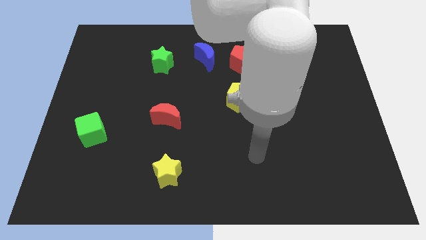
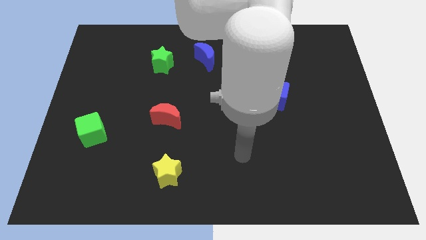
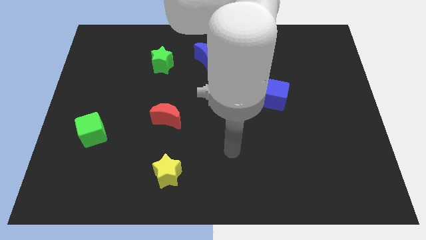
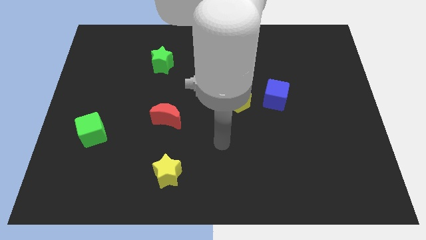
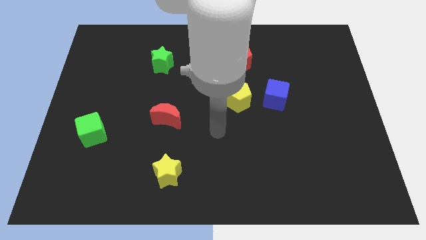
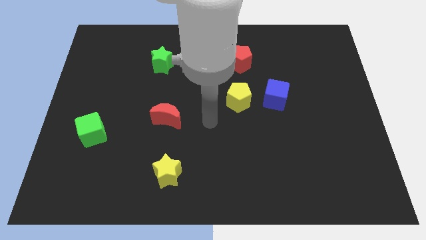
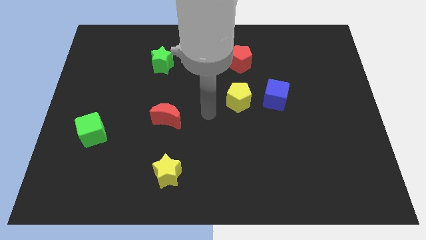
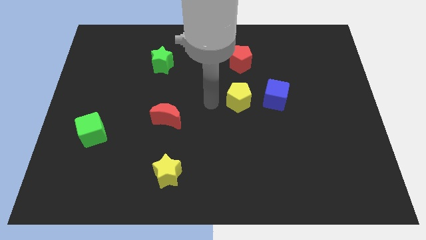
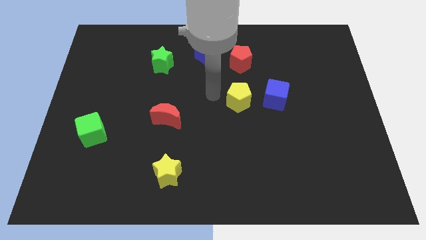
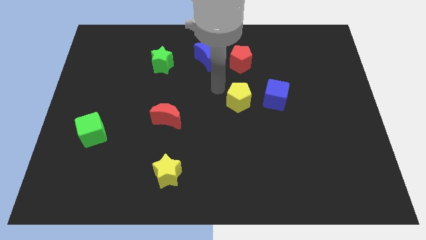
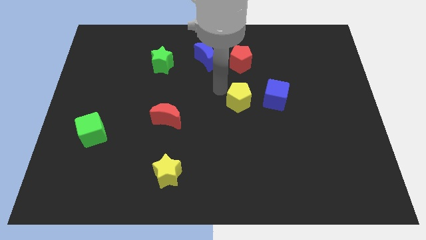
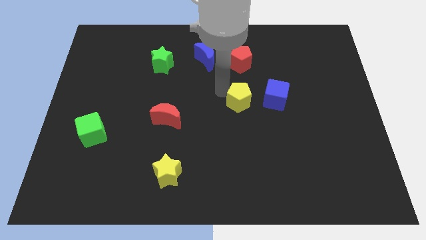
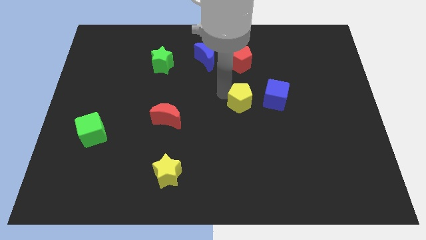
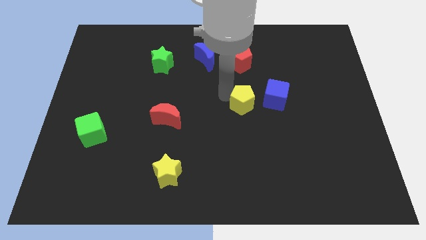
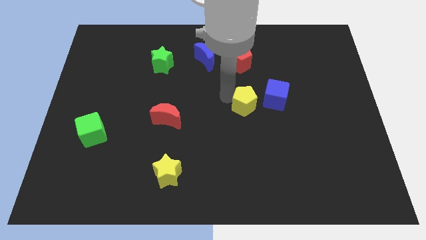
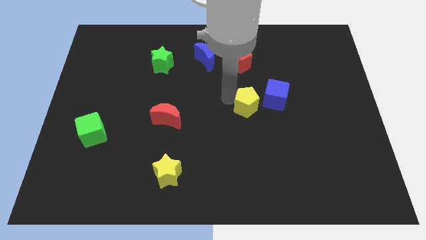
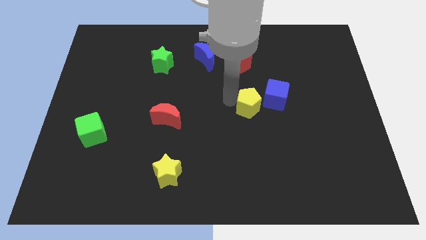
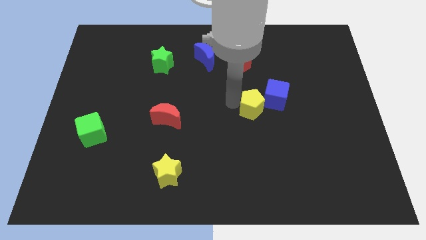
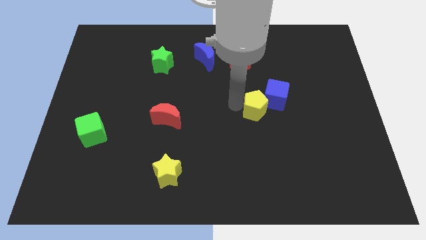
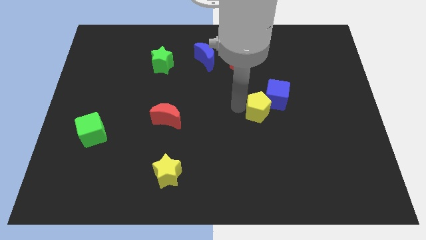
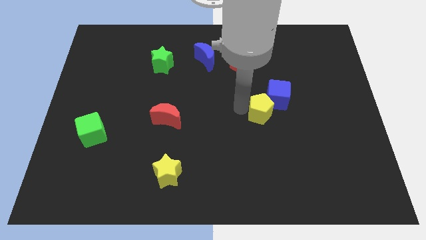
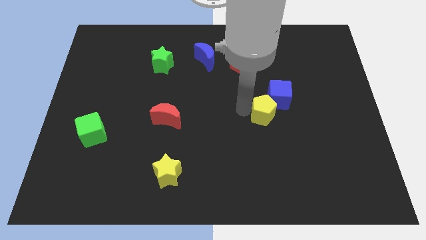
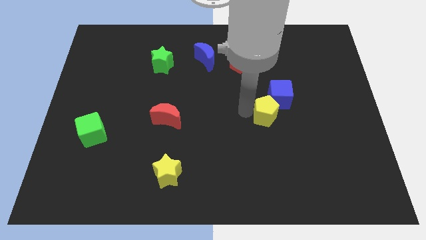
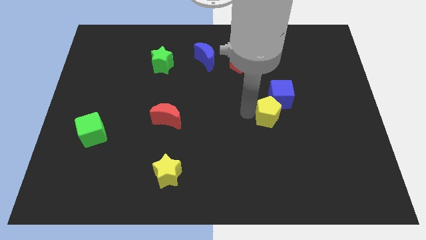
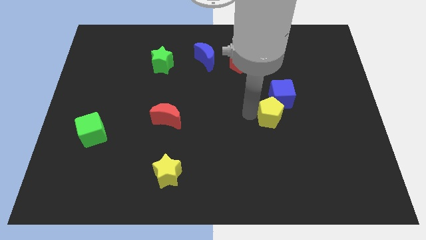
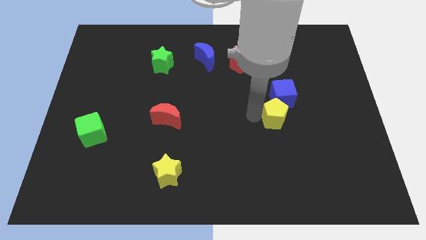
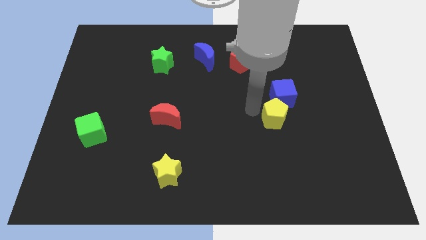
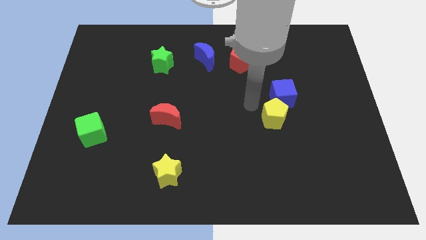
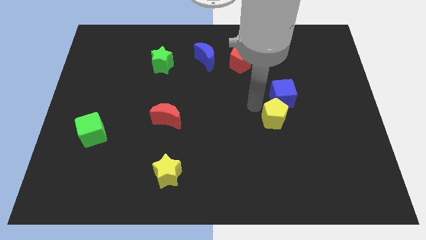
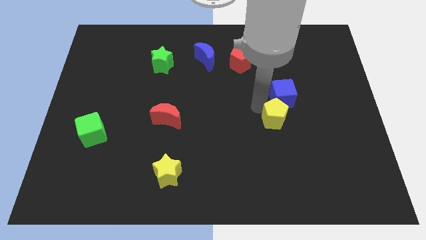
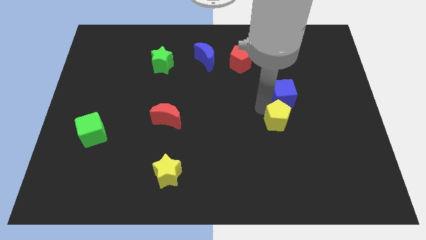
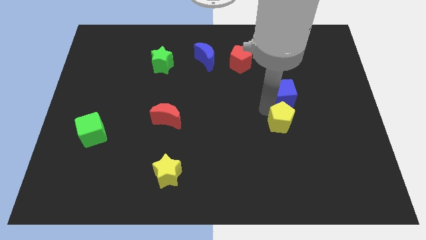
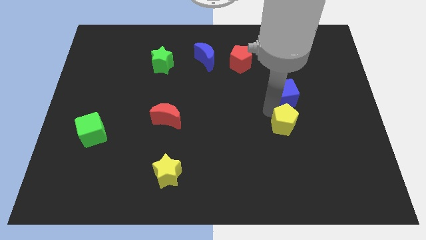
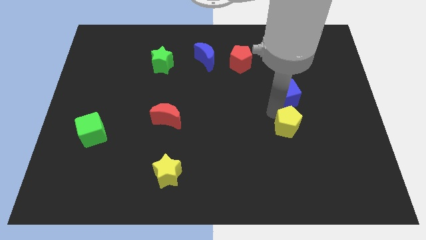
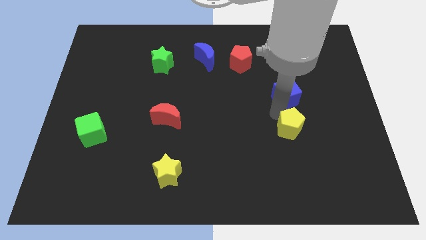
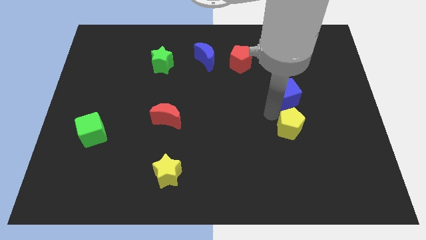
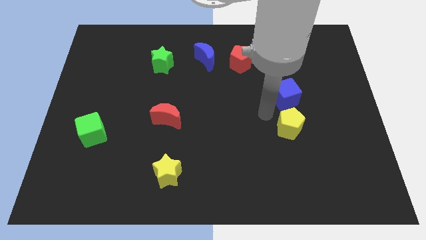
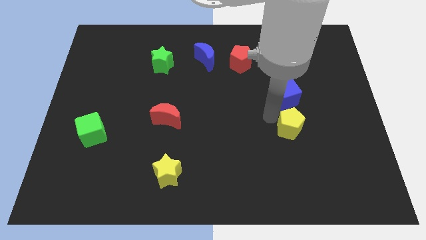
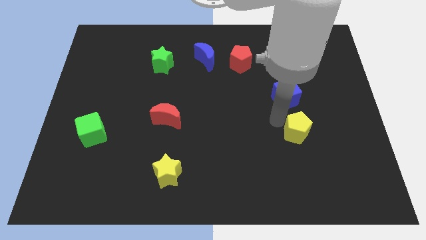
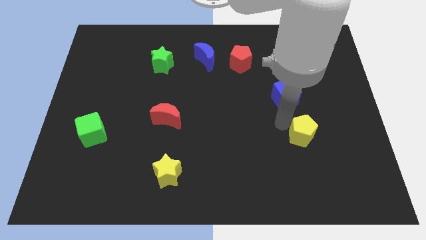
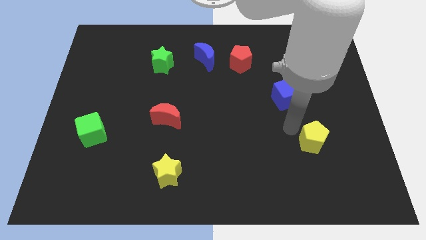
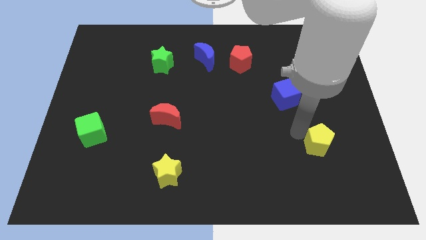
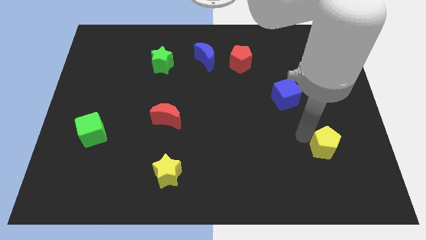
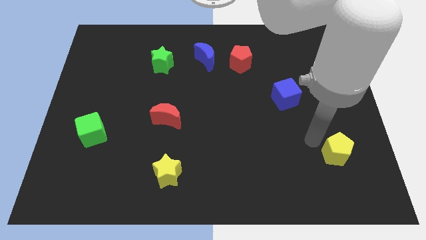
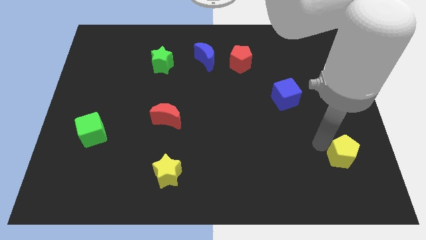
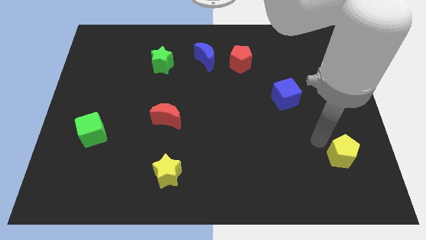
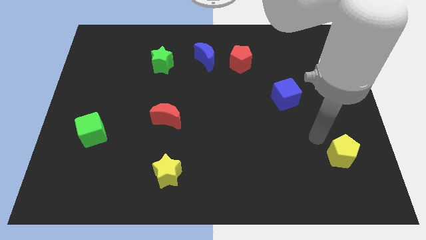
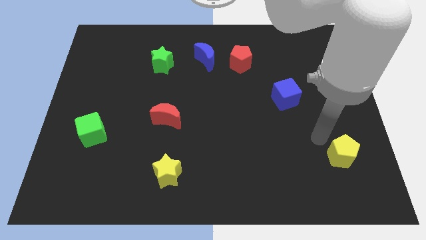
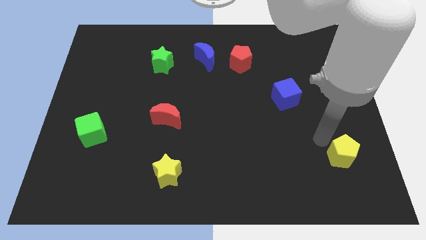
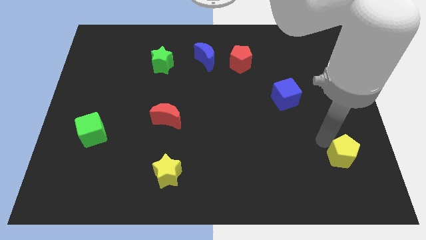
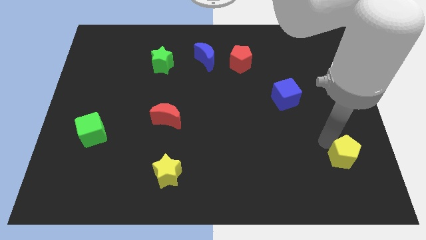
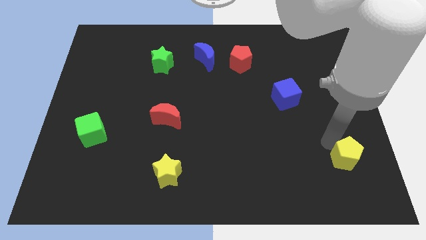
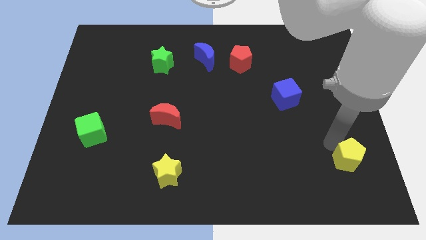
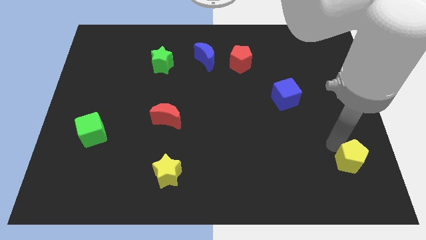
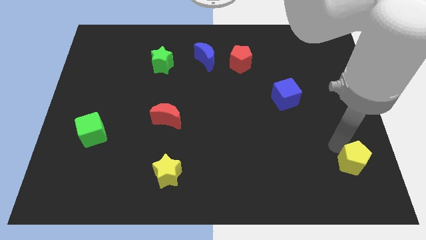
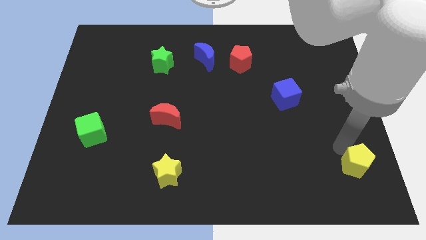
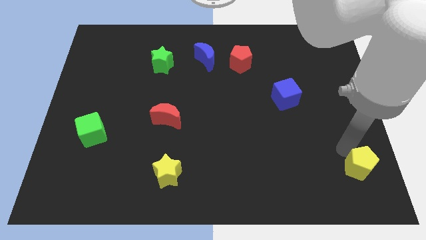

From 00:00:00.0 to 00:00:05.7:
move the yellow pentagon to the lower right corner
